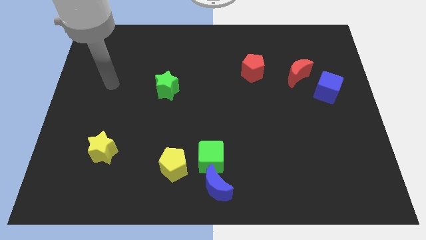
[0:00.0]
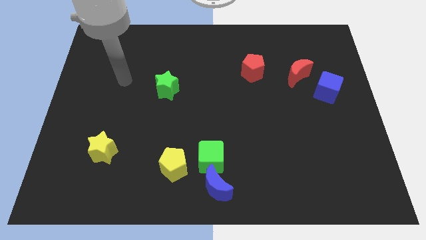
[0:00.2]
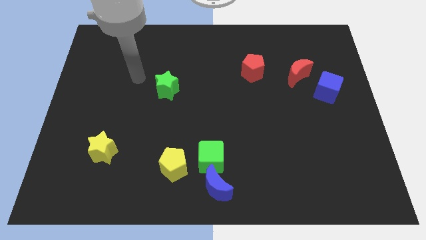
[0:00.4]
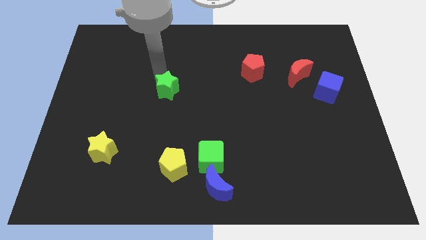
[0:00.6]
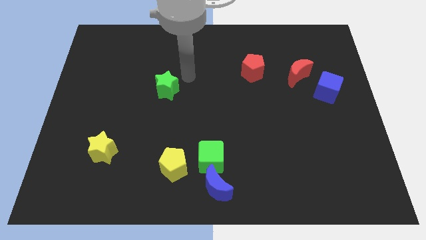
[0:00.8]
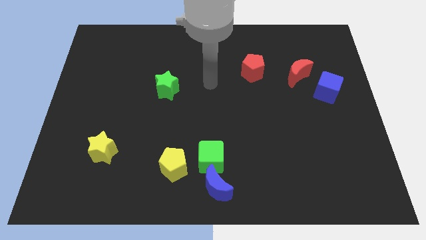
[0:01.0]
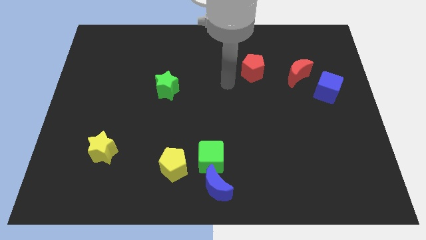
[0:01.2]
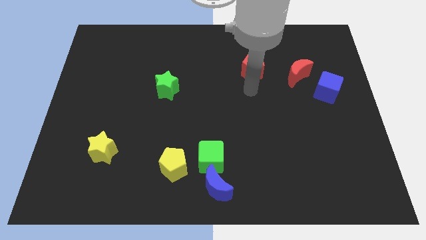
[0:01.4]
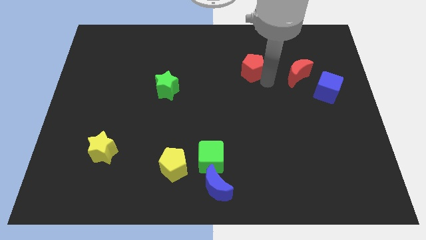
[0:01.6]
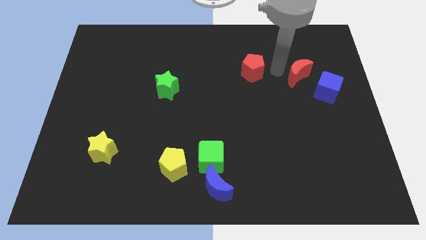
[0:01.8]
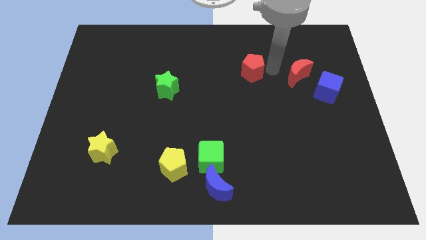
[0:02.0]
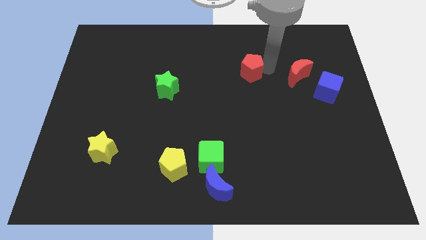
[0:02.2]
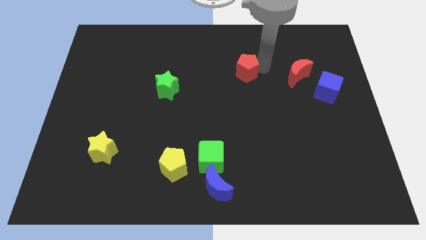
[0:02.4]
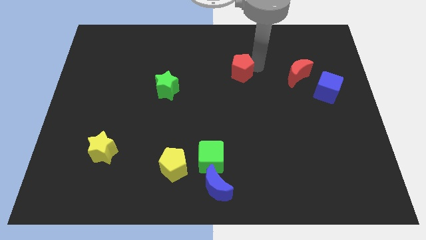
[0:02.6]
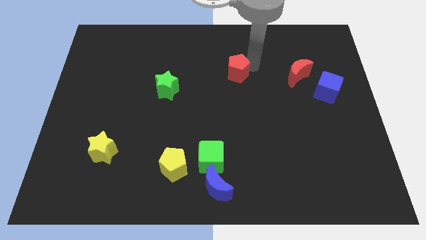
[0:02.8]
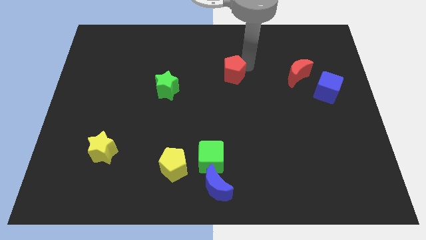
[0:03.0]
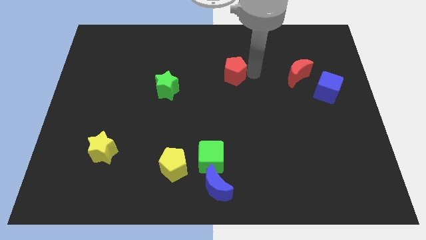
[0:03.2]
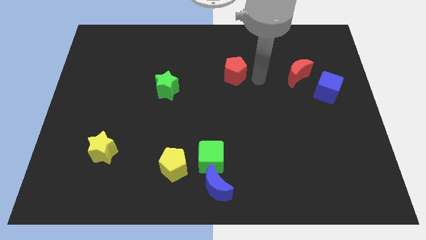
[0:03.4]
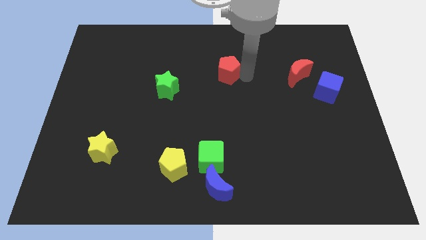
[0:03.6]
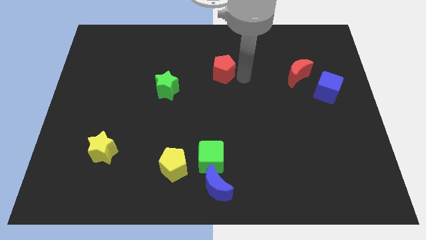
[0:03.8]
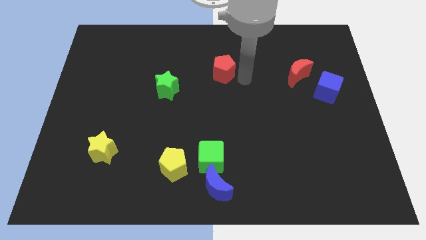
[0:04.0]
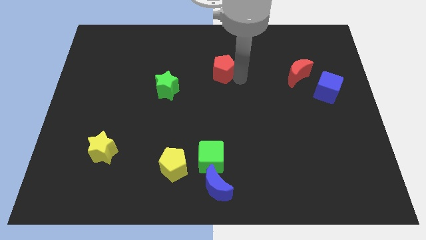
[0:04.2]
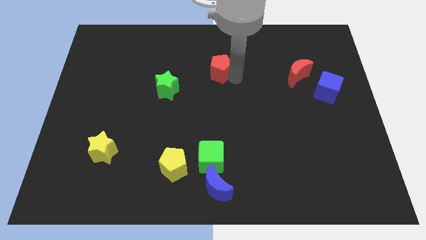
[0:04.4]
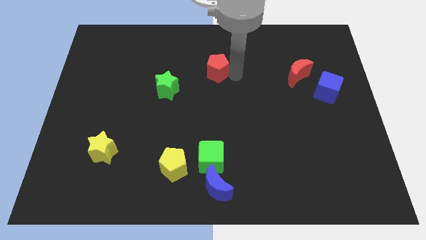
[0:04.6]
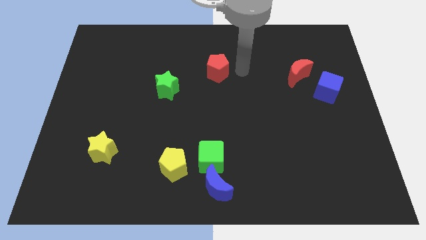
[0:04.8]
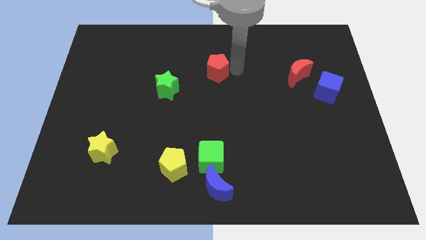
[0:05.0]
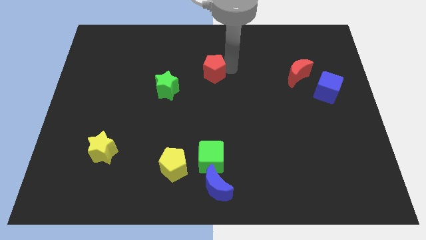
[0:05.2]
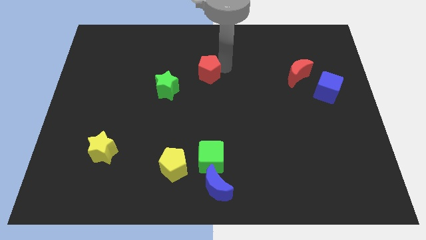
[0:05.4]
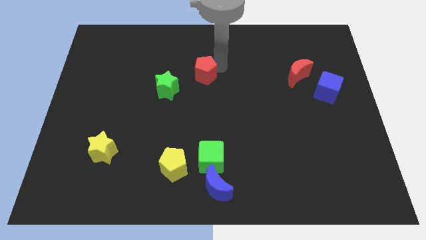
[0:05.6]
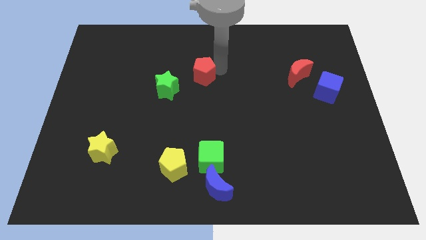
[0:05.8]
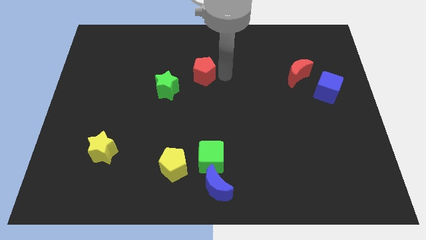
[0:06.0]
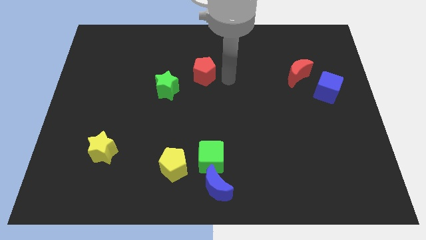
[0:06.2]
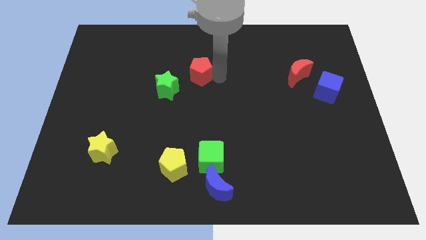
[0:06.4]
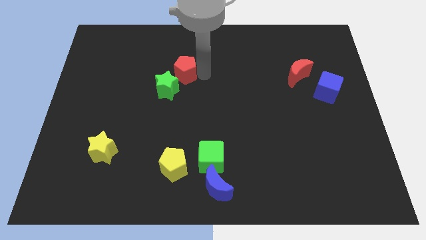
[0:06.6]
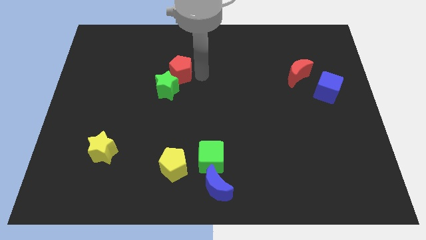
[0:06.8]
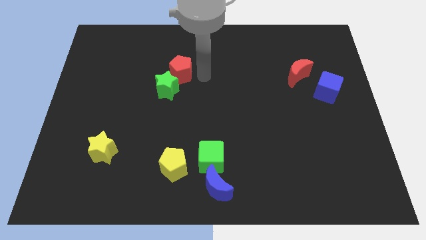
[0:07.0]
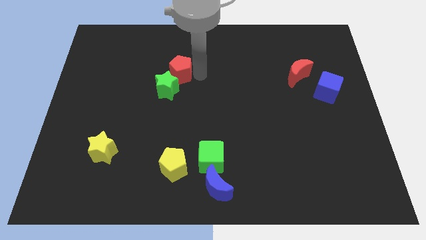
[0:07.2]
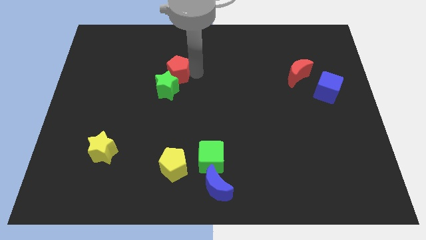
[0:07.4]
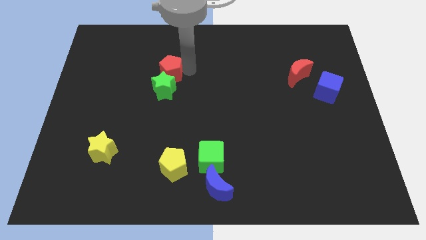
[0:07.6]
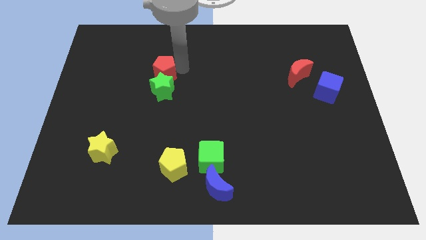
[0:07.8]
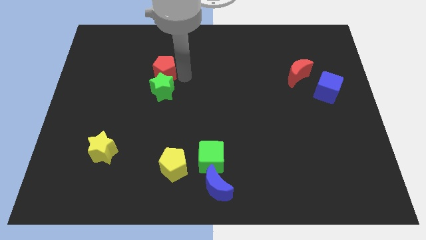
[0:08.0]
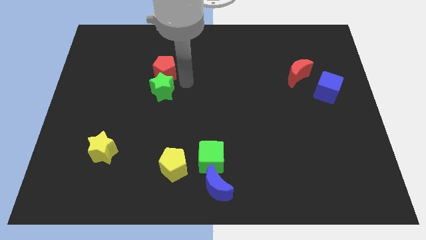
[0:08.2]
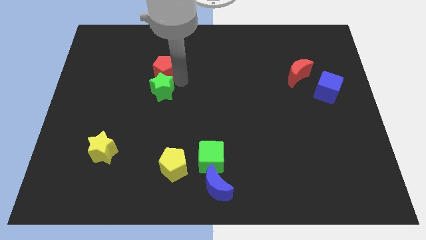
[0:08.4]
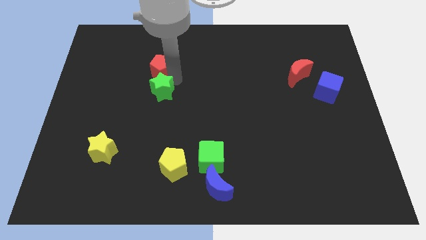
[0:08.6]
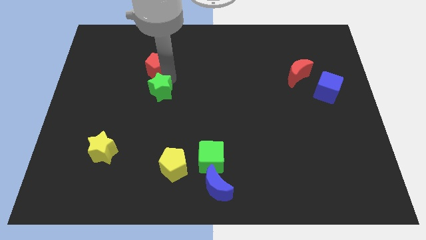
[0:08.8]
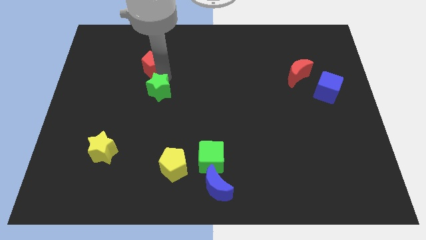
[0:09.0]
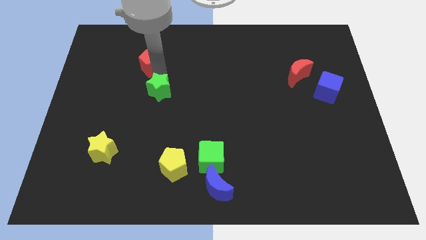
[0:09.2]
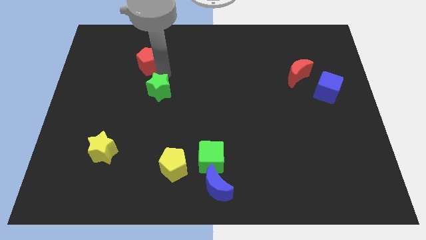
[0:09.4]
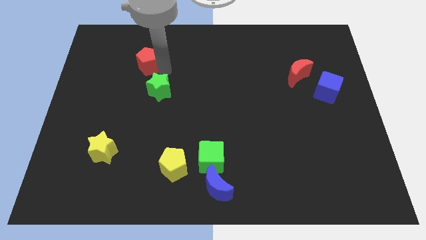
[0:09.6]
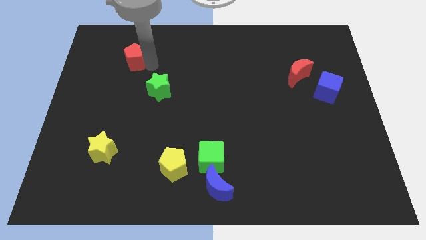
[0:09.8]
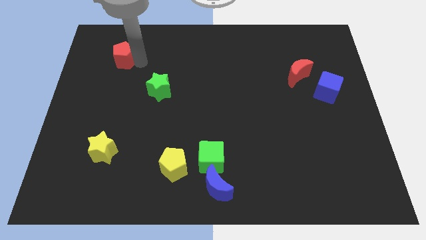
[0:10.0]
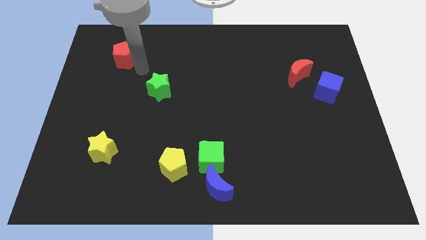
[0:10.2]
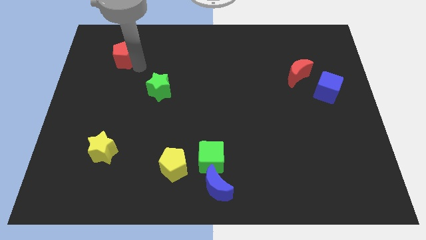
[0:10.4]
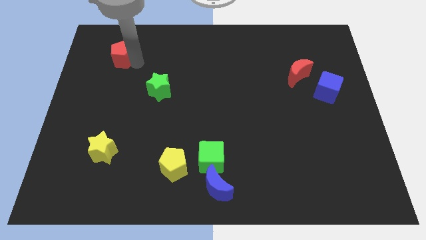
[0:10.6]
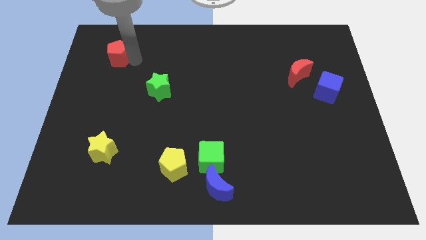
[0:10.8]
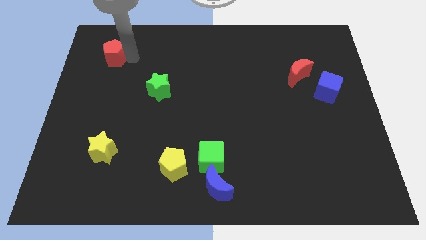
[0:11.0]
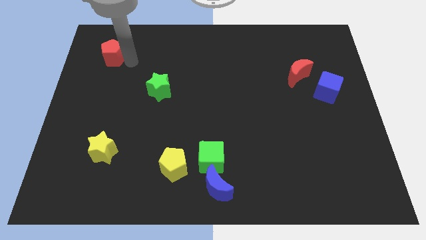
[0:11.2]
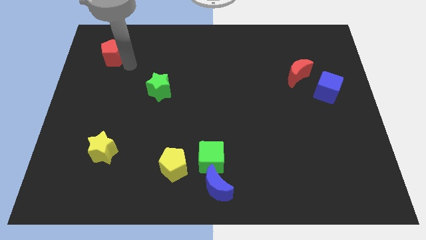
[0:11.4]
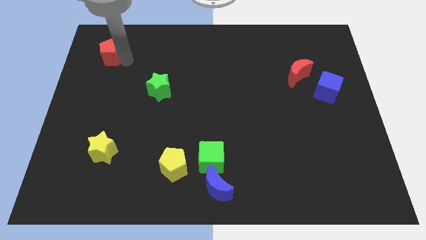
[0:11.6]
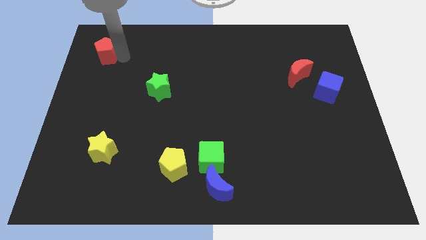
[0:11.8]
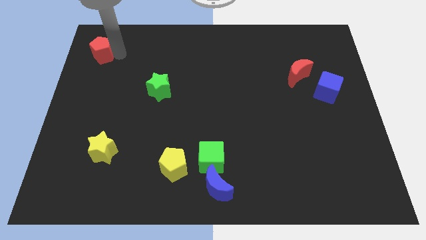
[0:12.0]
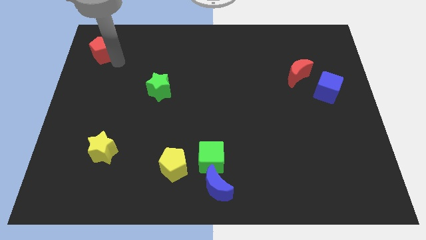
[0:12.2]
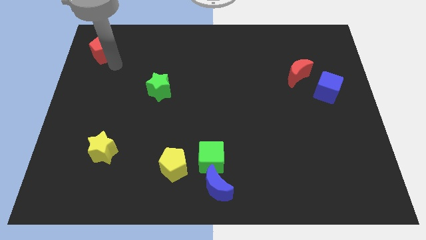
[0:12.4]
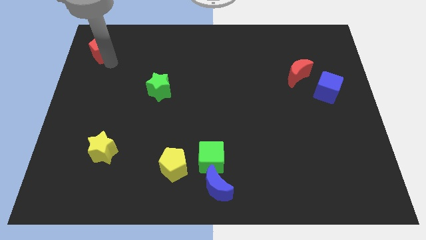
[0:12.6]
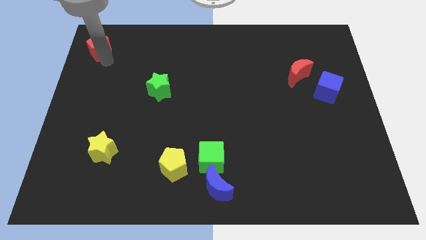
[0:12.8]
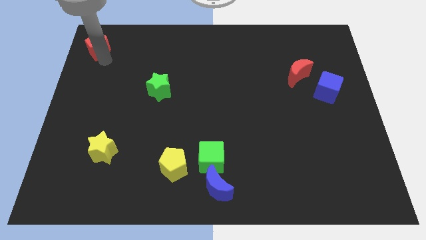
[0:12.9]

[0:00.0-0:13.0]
put the red pentagon to the top left
